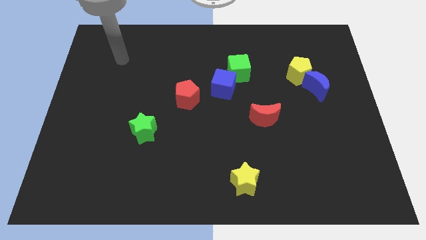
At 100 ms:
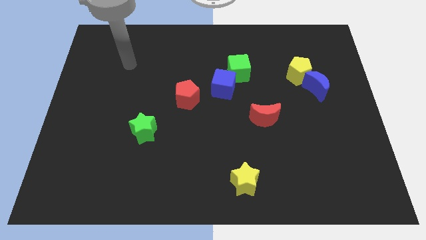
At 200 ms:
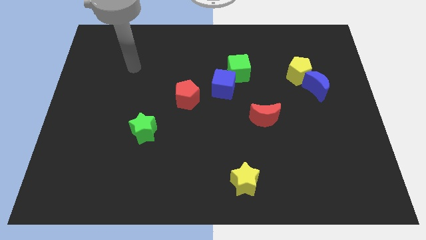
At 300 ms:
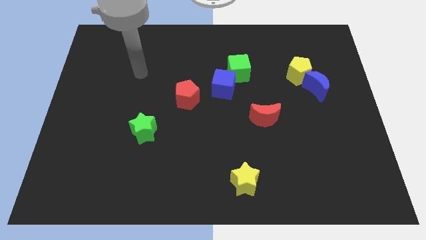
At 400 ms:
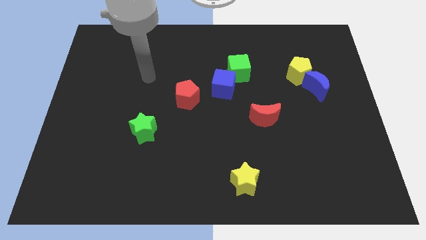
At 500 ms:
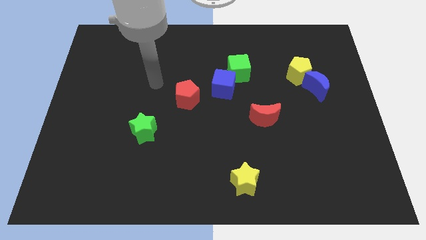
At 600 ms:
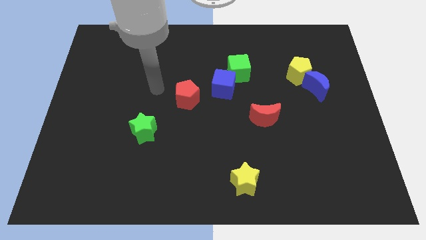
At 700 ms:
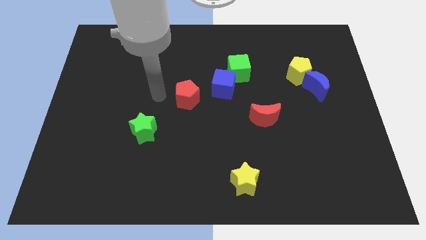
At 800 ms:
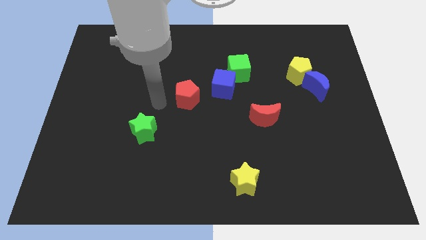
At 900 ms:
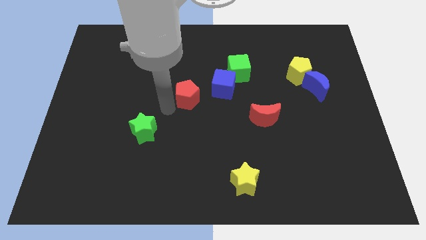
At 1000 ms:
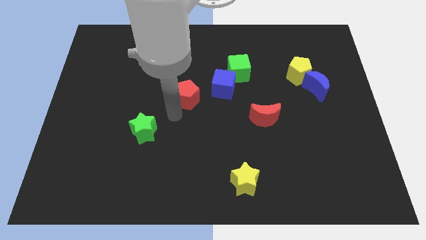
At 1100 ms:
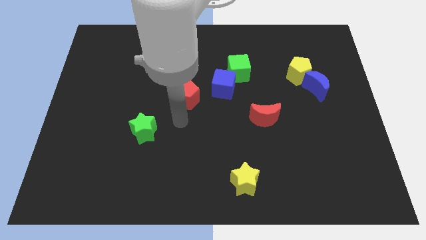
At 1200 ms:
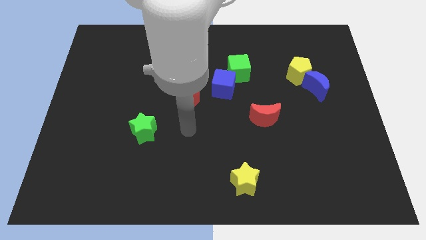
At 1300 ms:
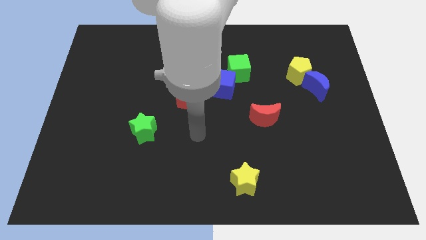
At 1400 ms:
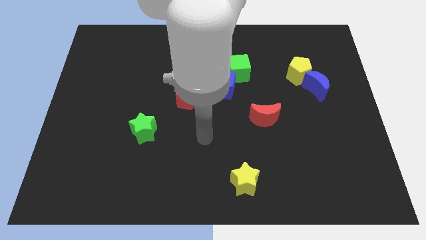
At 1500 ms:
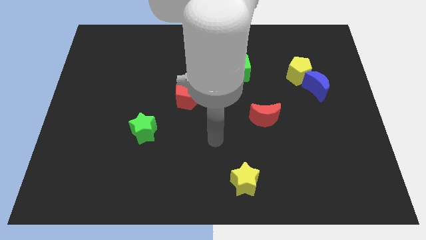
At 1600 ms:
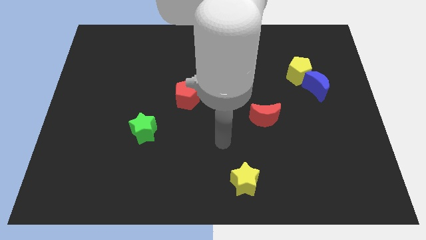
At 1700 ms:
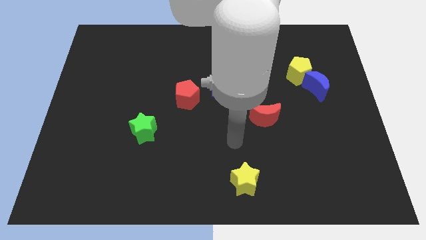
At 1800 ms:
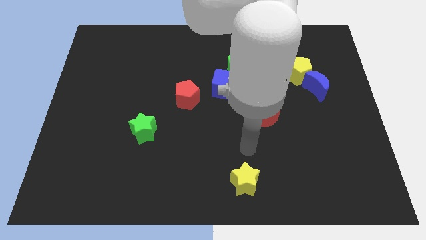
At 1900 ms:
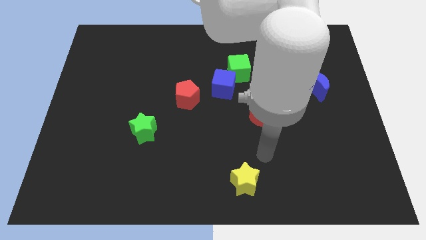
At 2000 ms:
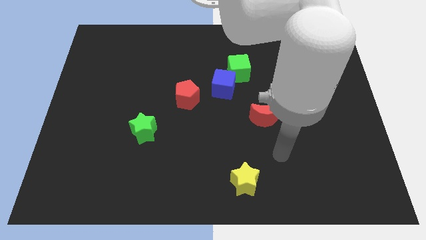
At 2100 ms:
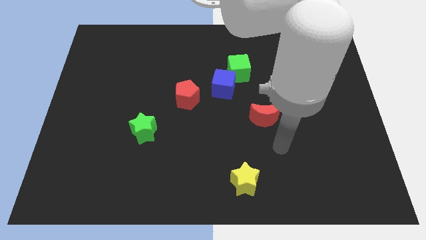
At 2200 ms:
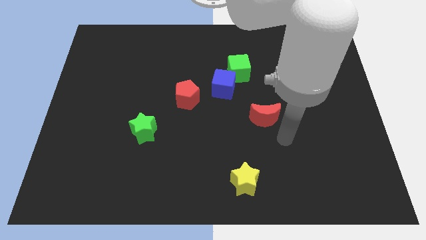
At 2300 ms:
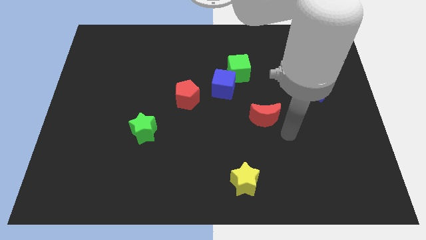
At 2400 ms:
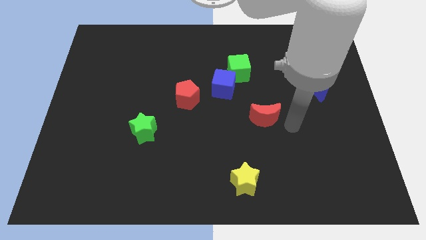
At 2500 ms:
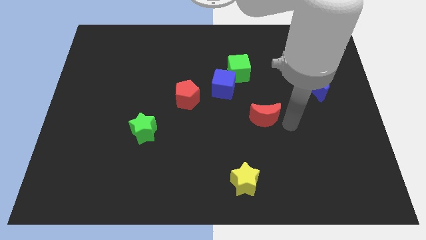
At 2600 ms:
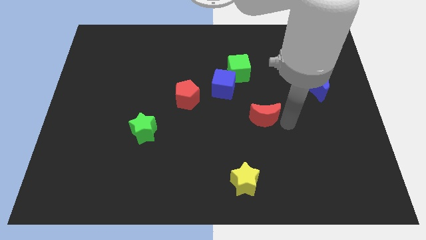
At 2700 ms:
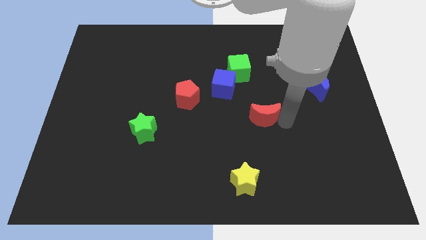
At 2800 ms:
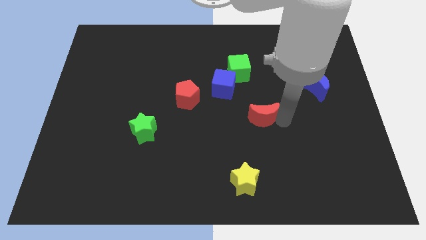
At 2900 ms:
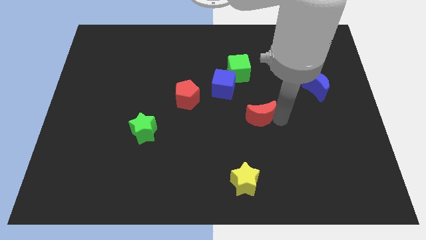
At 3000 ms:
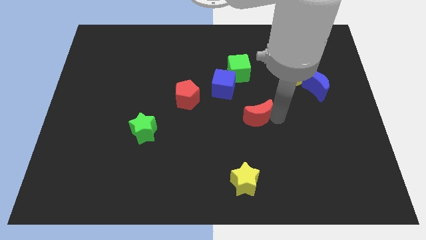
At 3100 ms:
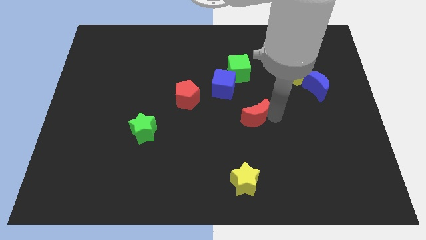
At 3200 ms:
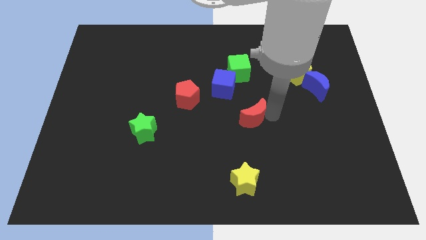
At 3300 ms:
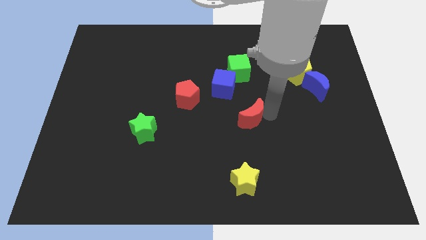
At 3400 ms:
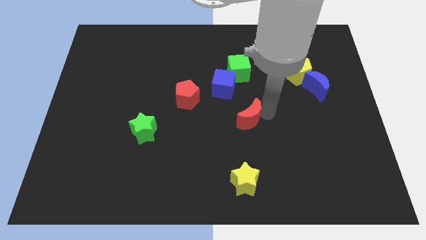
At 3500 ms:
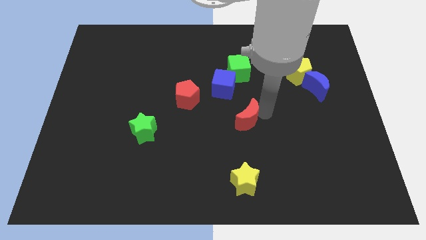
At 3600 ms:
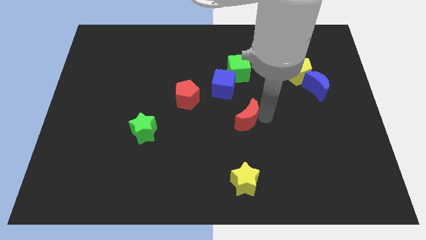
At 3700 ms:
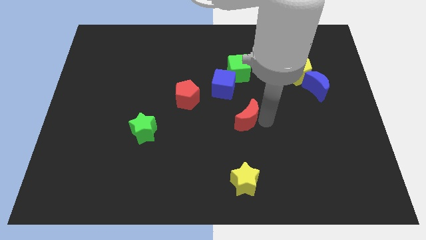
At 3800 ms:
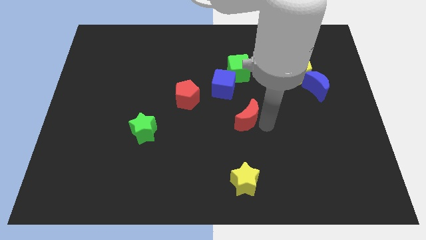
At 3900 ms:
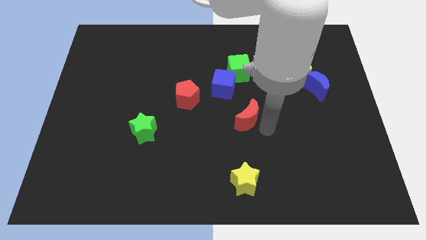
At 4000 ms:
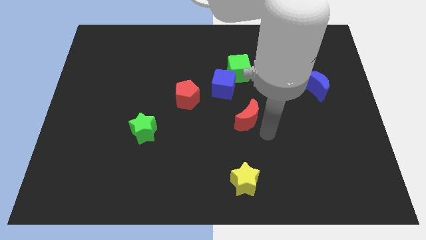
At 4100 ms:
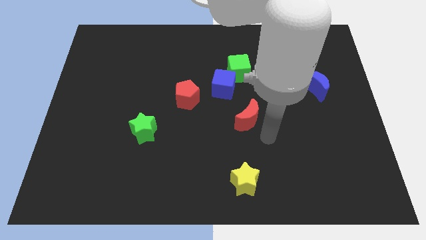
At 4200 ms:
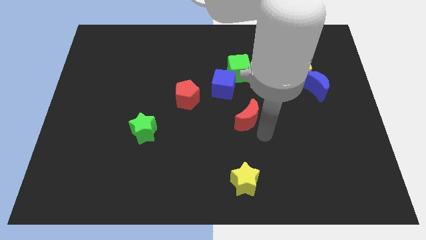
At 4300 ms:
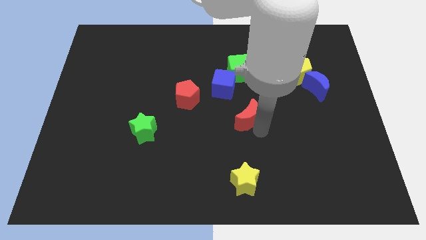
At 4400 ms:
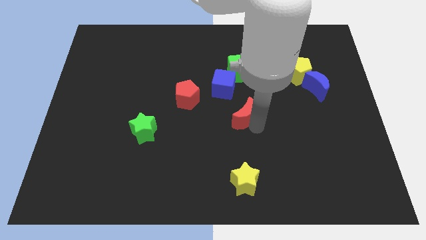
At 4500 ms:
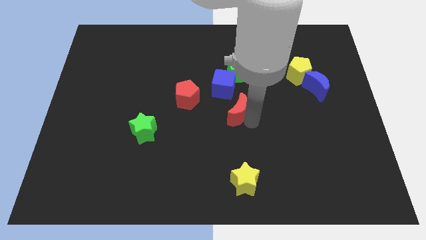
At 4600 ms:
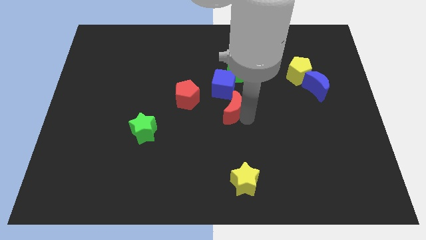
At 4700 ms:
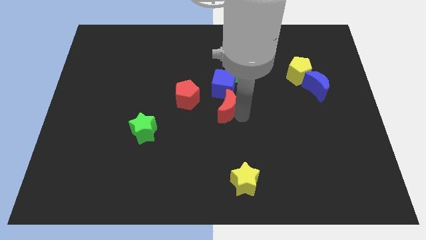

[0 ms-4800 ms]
slide the red moon a little upwards and left

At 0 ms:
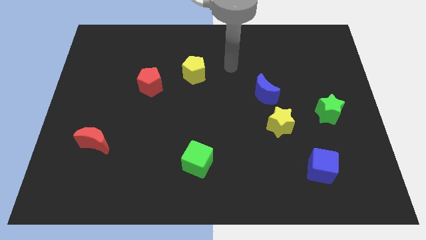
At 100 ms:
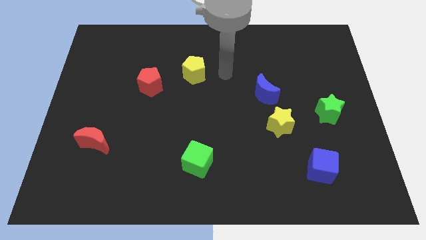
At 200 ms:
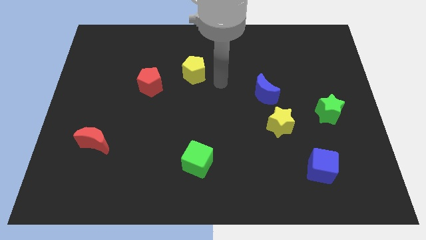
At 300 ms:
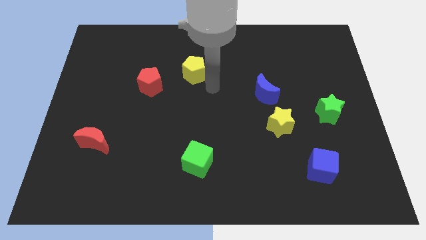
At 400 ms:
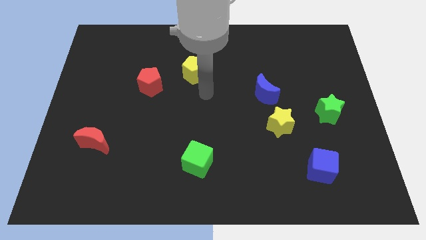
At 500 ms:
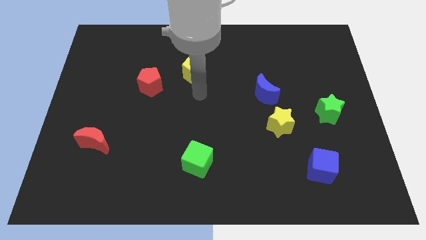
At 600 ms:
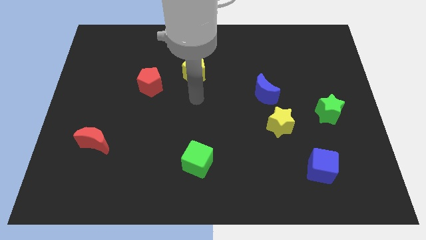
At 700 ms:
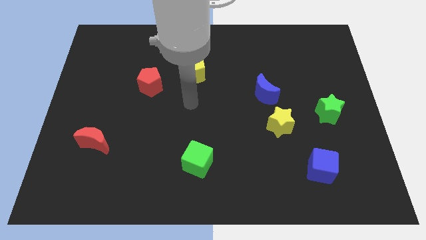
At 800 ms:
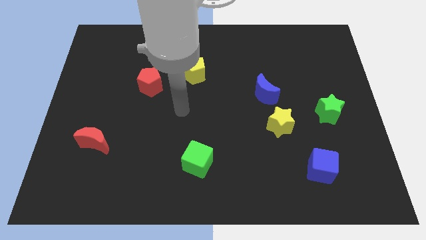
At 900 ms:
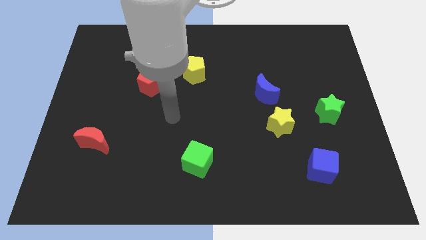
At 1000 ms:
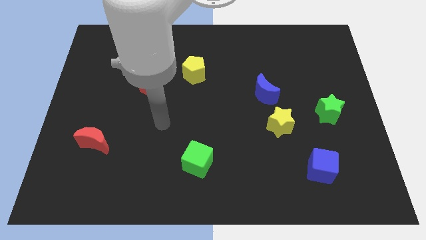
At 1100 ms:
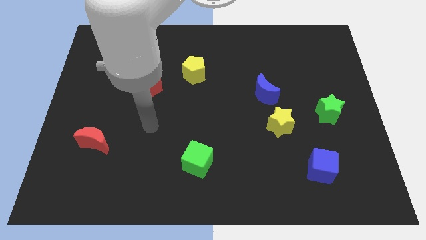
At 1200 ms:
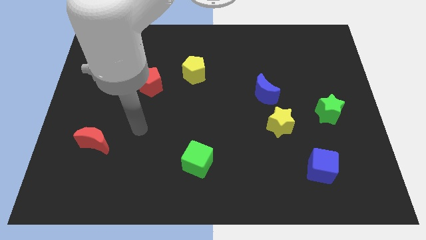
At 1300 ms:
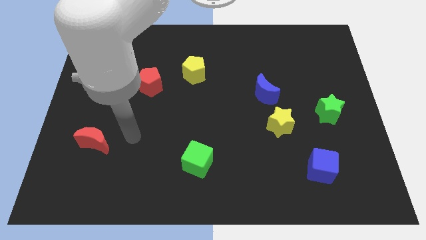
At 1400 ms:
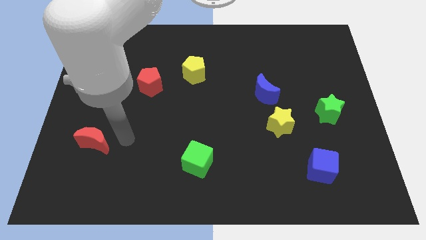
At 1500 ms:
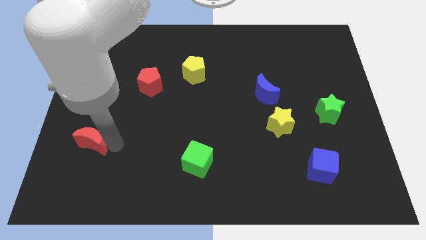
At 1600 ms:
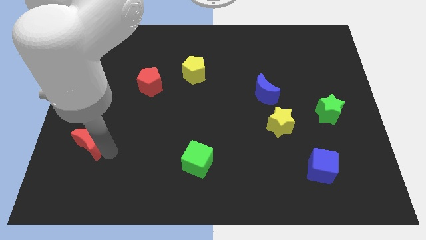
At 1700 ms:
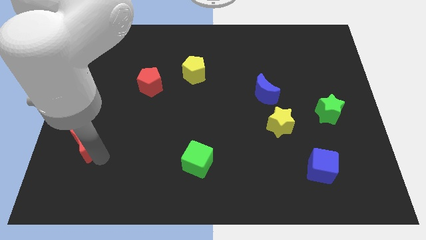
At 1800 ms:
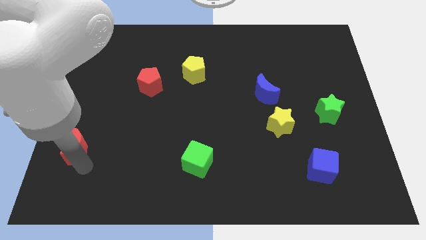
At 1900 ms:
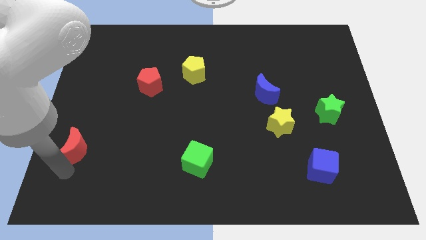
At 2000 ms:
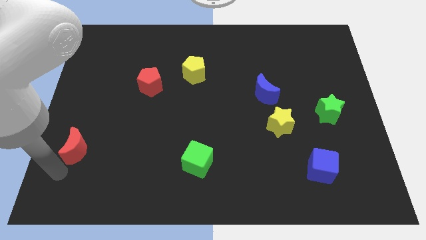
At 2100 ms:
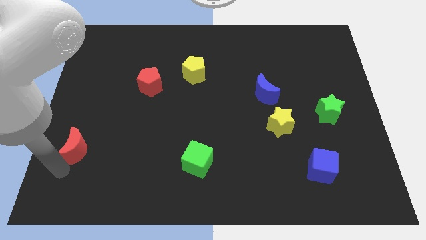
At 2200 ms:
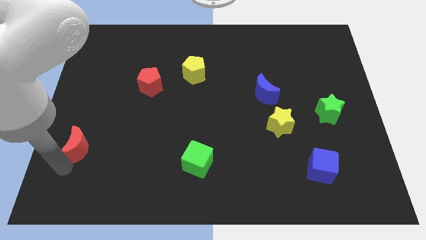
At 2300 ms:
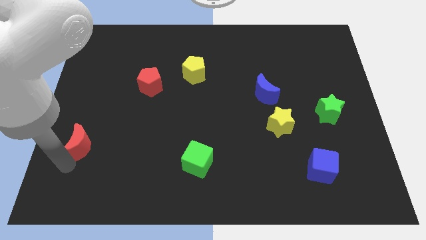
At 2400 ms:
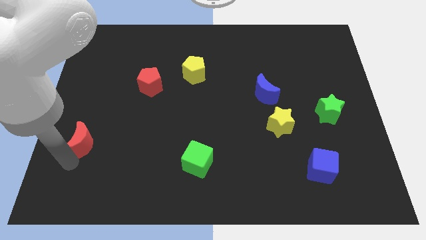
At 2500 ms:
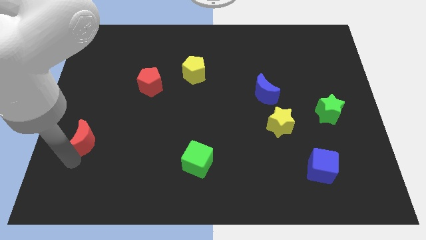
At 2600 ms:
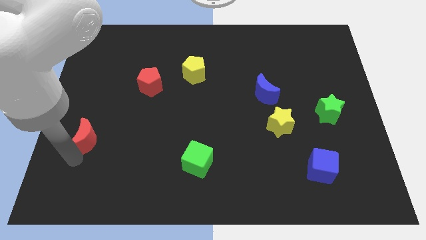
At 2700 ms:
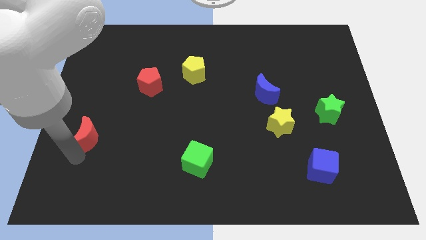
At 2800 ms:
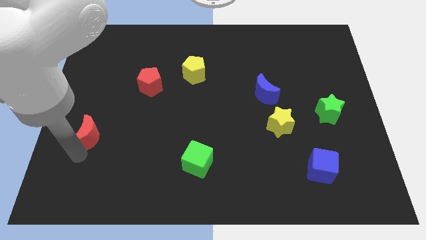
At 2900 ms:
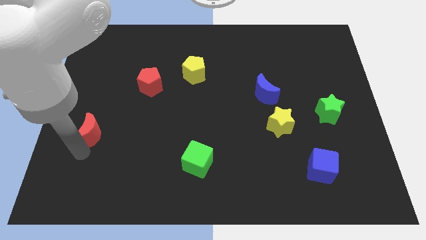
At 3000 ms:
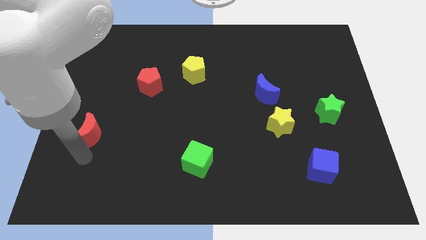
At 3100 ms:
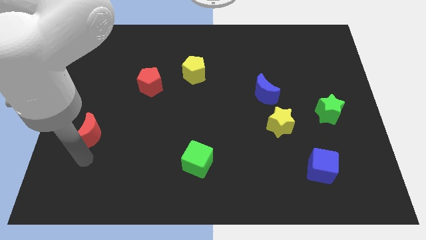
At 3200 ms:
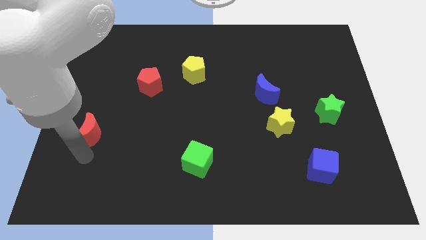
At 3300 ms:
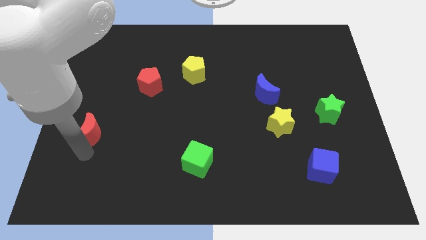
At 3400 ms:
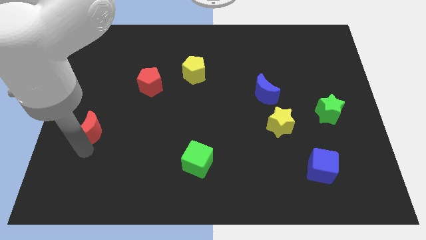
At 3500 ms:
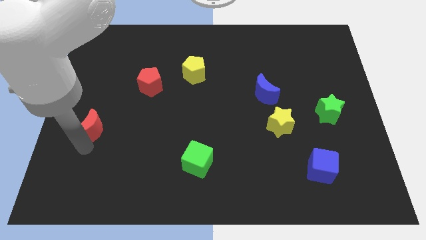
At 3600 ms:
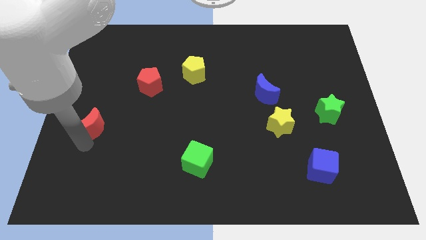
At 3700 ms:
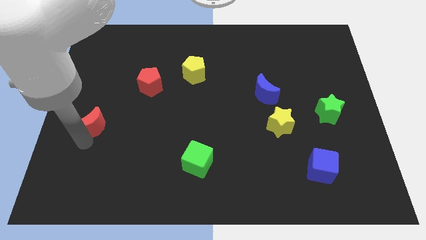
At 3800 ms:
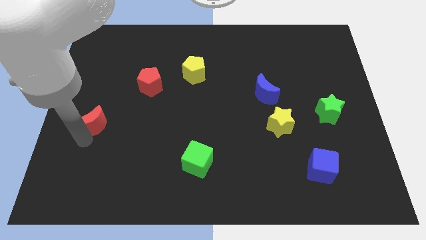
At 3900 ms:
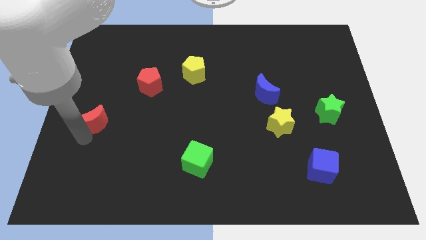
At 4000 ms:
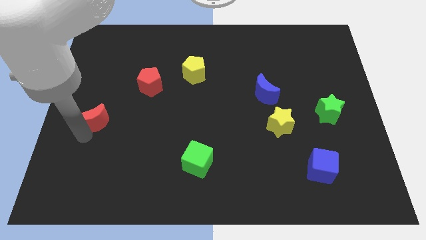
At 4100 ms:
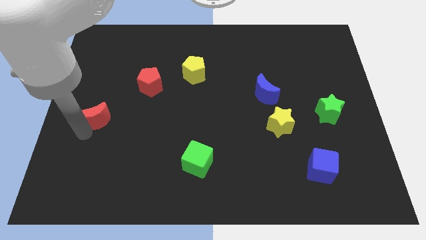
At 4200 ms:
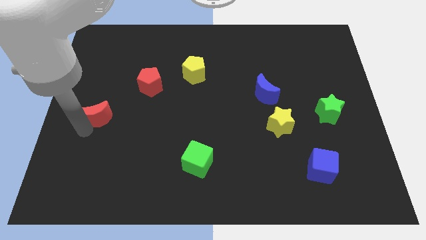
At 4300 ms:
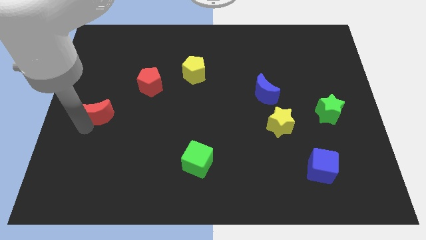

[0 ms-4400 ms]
slide the red moon a little bit upwards
